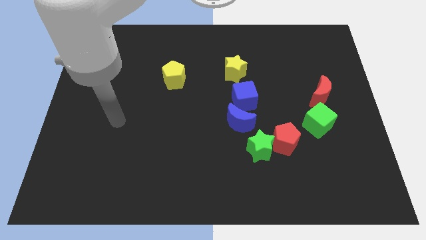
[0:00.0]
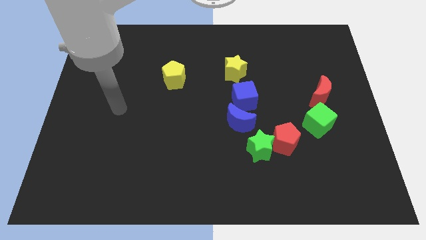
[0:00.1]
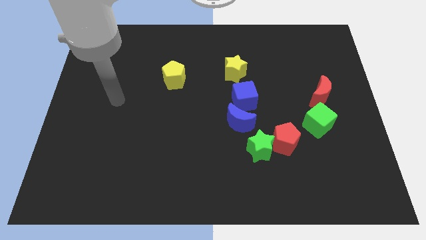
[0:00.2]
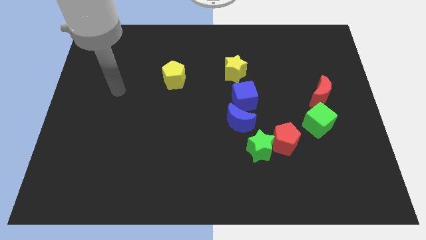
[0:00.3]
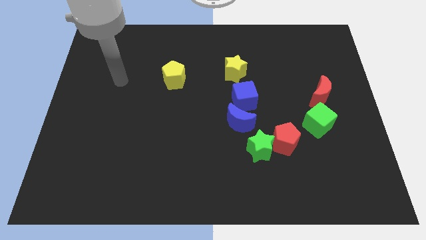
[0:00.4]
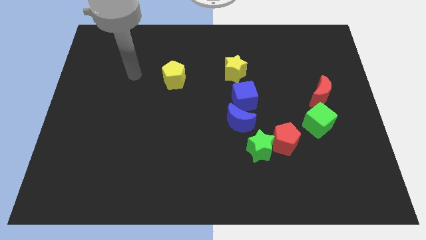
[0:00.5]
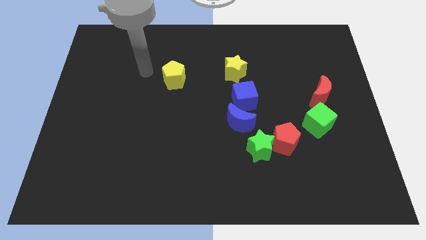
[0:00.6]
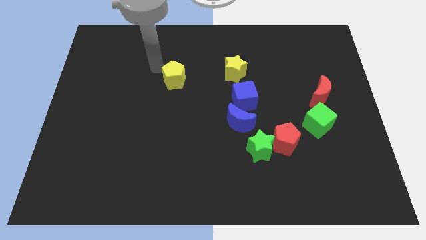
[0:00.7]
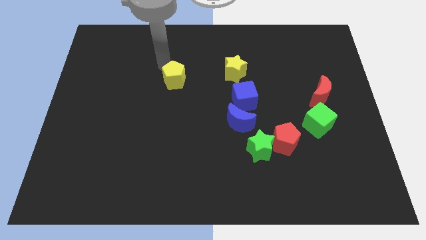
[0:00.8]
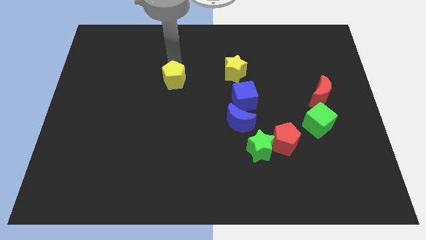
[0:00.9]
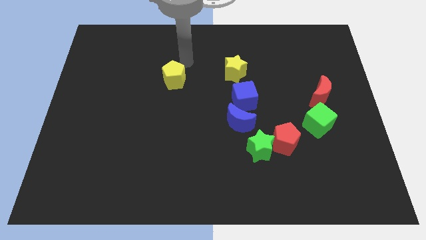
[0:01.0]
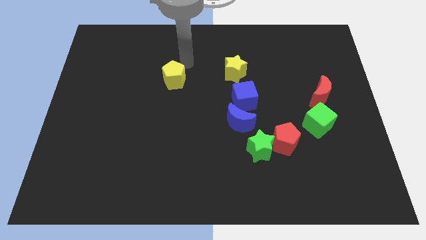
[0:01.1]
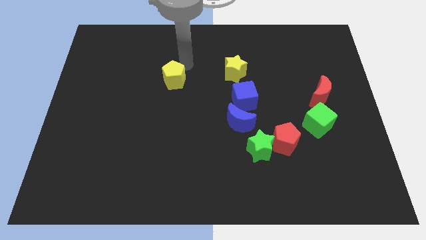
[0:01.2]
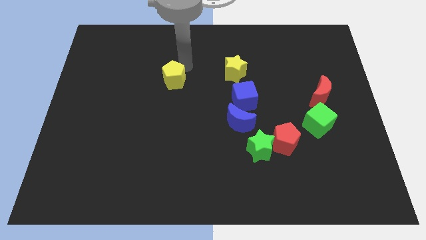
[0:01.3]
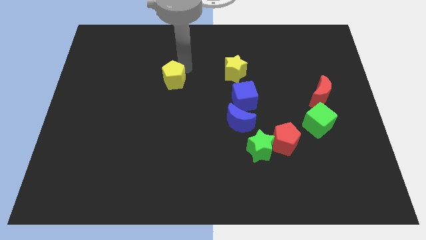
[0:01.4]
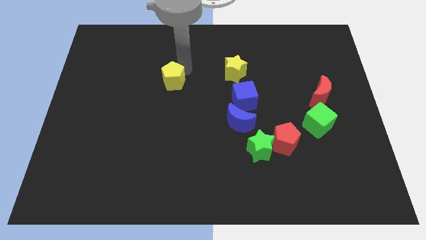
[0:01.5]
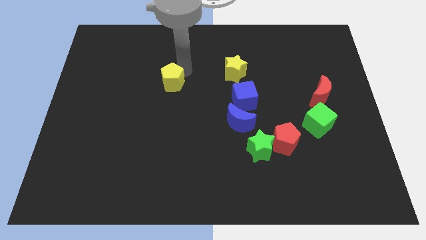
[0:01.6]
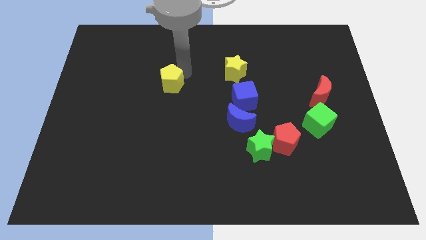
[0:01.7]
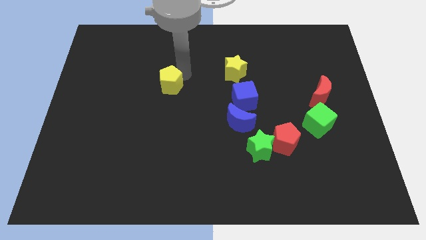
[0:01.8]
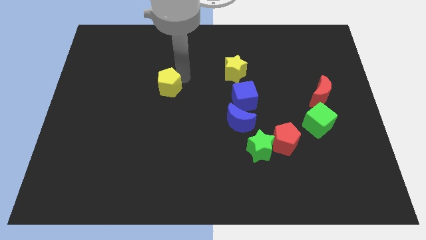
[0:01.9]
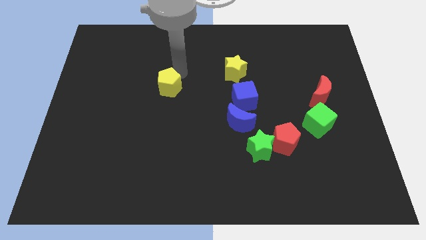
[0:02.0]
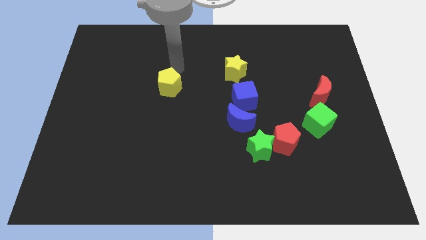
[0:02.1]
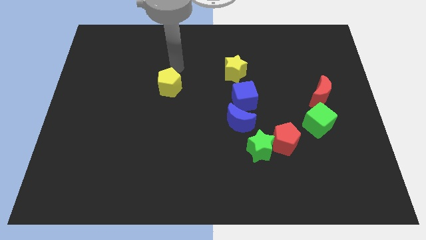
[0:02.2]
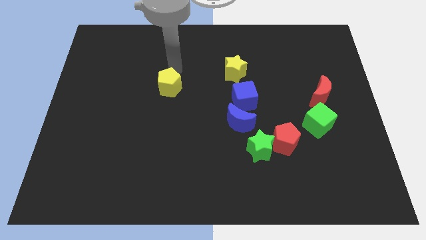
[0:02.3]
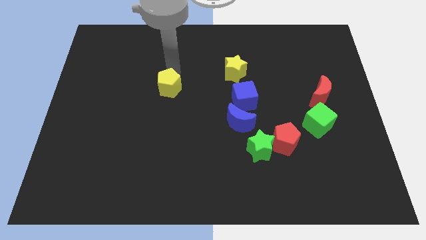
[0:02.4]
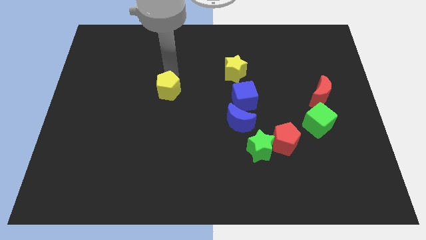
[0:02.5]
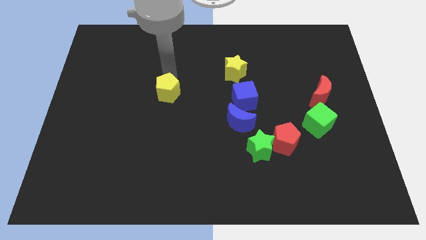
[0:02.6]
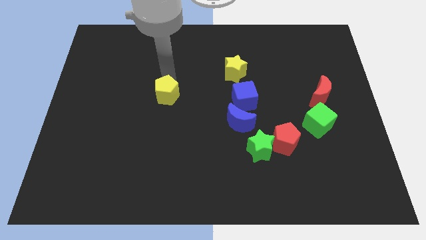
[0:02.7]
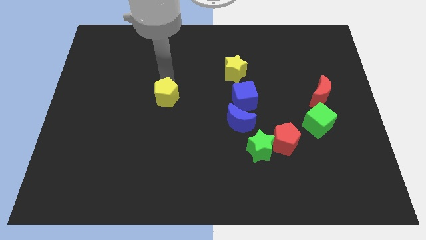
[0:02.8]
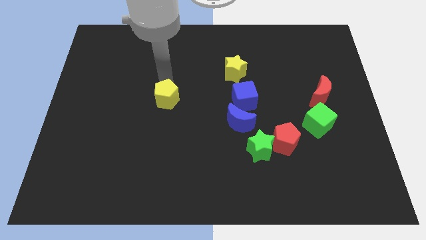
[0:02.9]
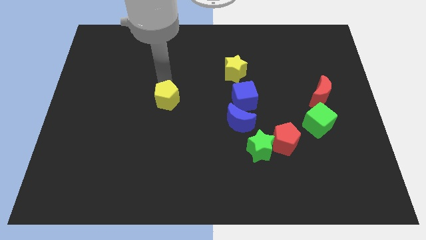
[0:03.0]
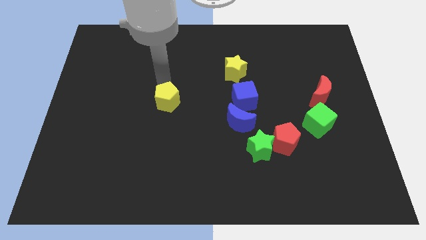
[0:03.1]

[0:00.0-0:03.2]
slide the yellow pentagon somewhat down

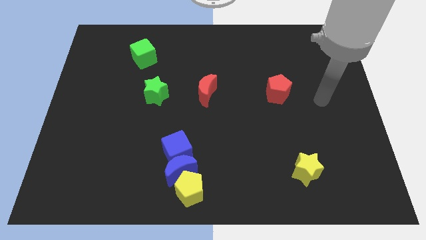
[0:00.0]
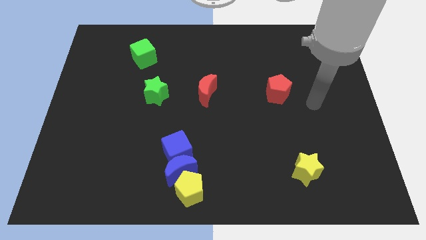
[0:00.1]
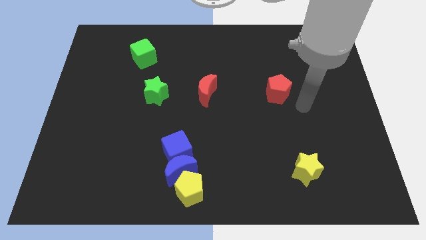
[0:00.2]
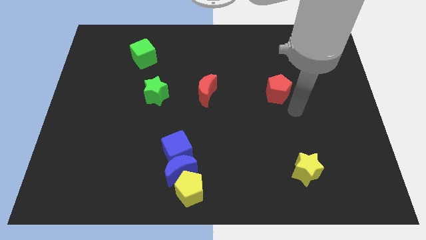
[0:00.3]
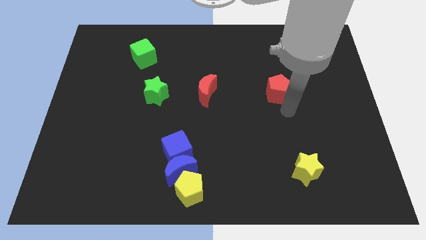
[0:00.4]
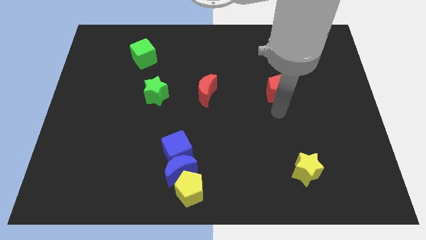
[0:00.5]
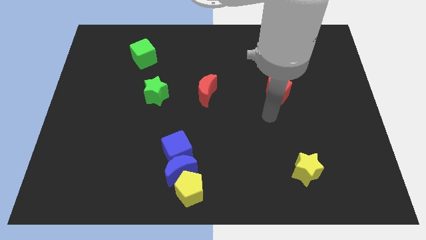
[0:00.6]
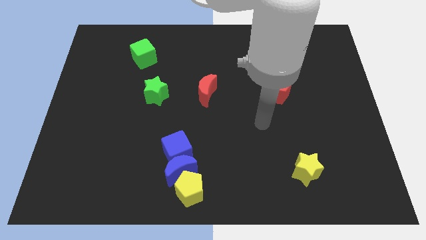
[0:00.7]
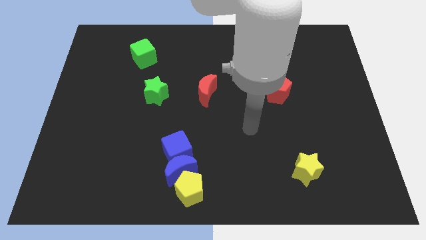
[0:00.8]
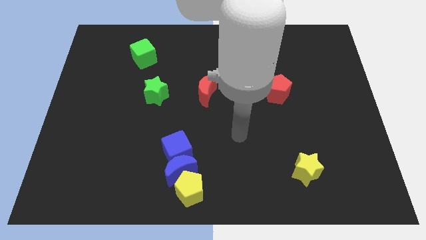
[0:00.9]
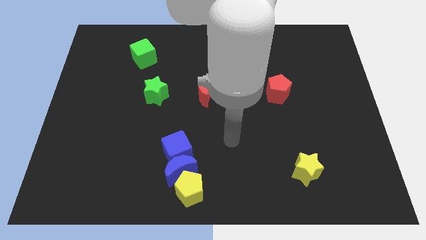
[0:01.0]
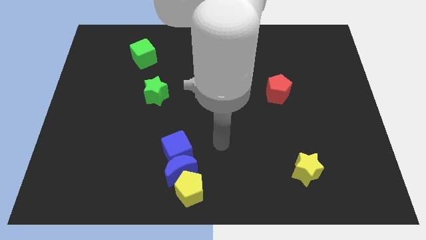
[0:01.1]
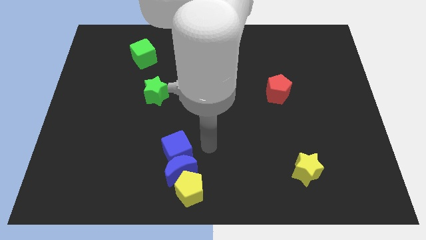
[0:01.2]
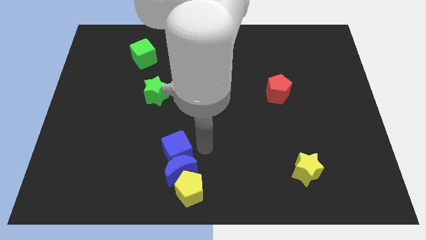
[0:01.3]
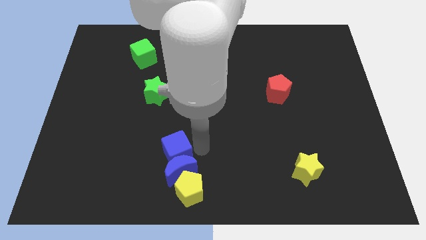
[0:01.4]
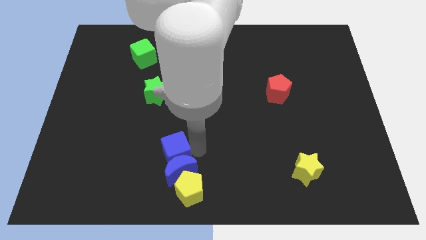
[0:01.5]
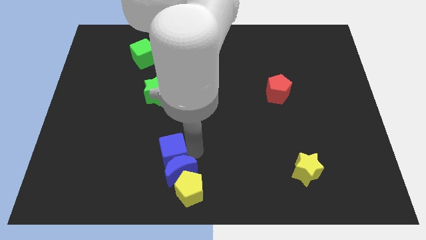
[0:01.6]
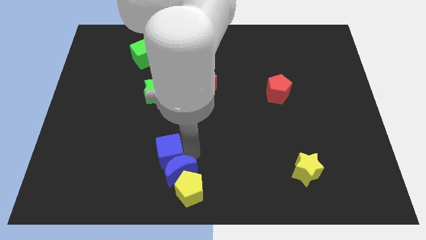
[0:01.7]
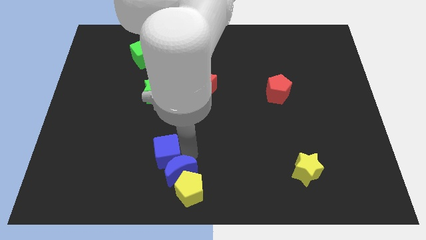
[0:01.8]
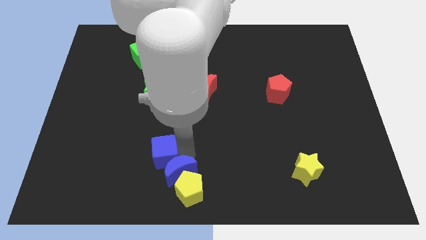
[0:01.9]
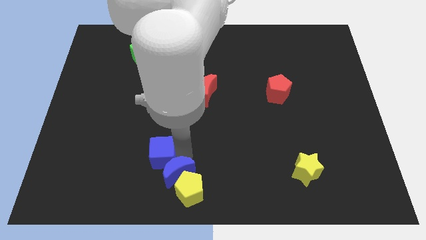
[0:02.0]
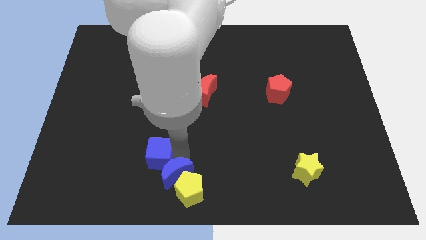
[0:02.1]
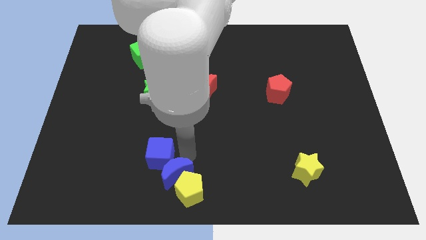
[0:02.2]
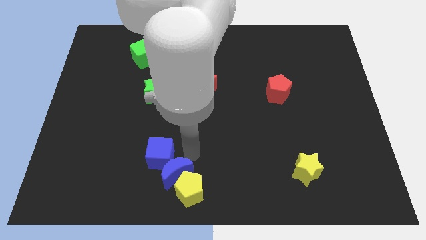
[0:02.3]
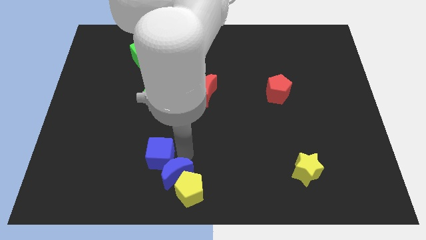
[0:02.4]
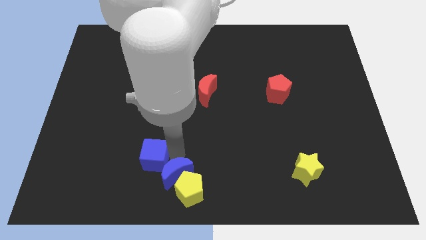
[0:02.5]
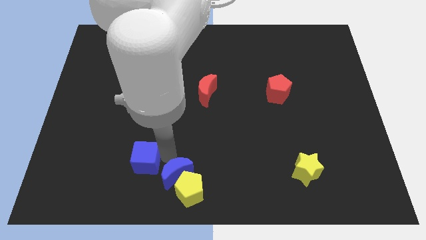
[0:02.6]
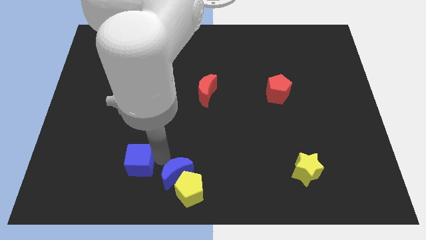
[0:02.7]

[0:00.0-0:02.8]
slightly slide the blue cube to the left

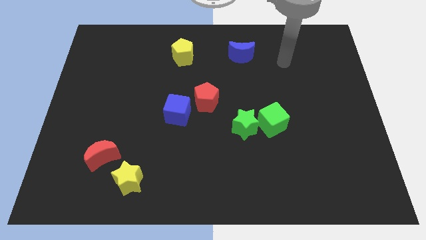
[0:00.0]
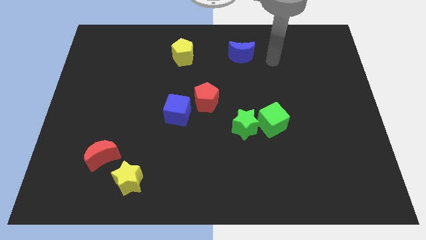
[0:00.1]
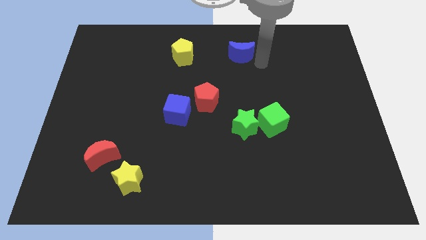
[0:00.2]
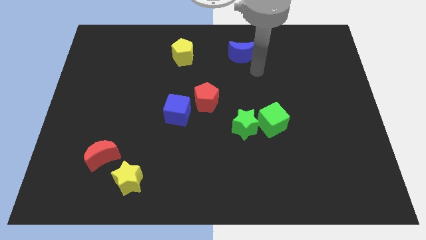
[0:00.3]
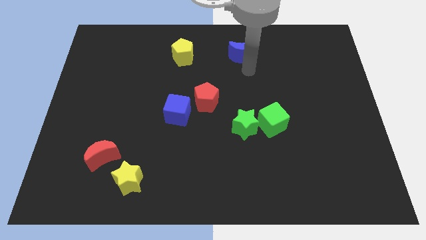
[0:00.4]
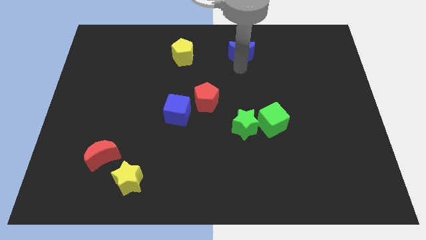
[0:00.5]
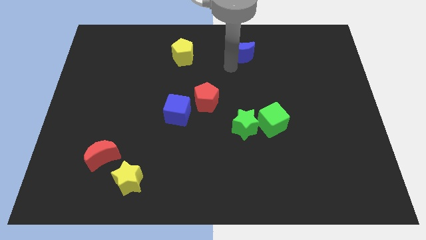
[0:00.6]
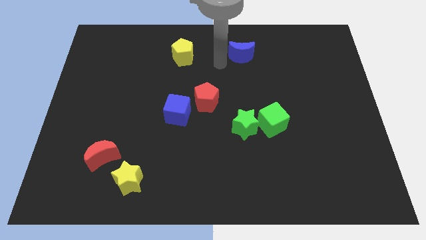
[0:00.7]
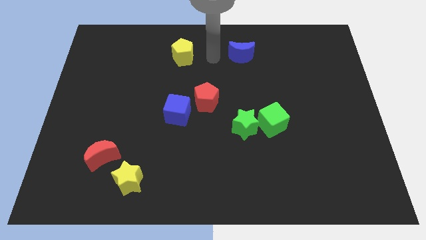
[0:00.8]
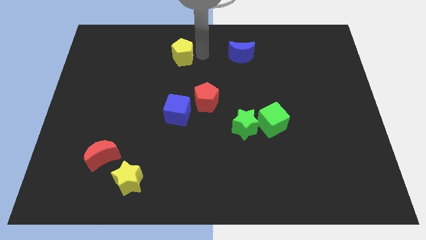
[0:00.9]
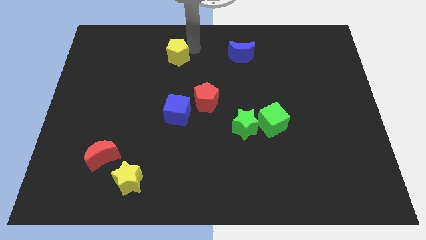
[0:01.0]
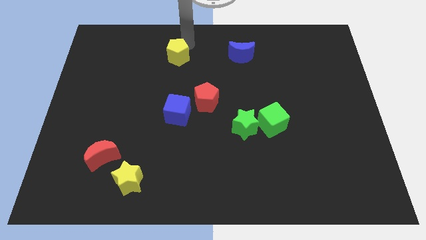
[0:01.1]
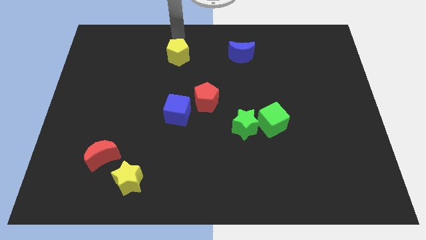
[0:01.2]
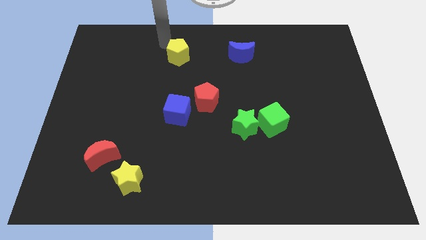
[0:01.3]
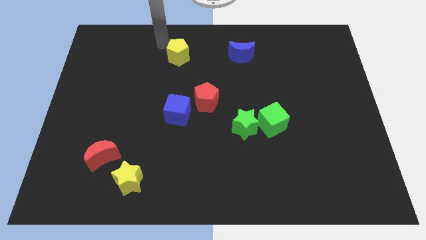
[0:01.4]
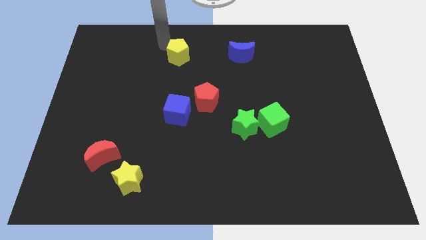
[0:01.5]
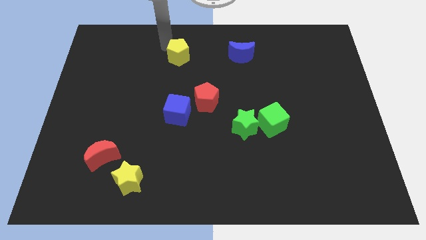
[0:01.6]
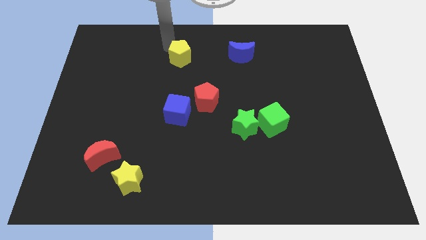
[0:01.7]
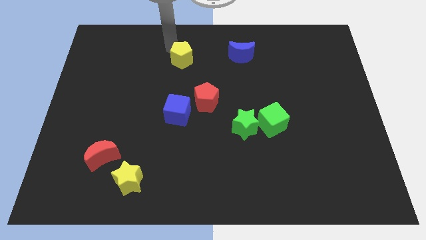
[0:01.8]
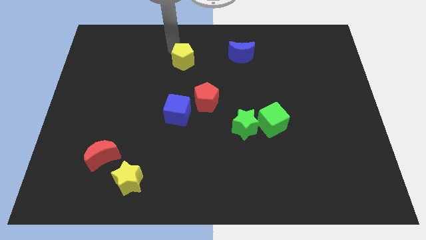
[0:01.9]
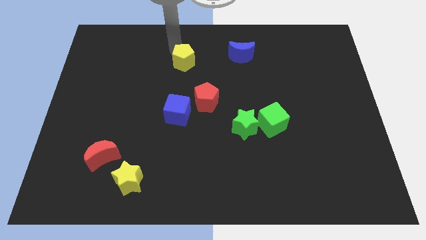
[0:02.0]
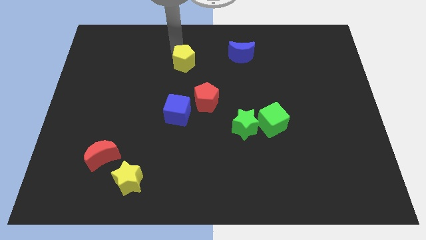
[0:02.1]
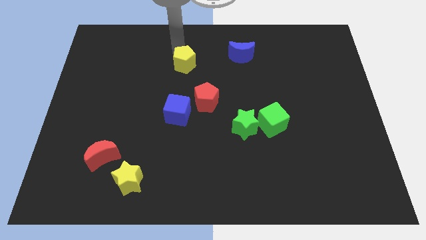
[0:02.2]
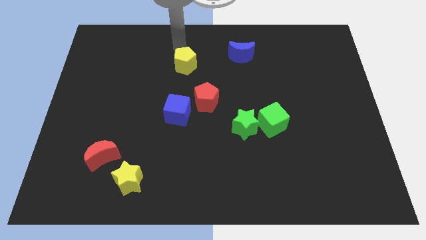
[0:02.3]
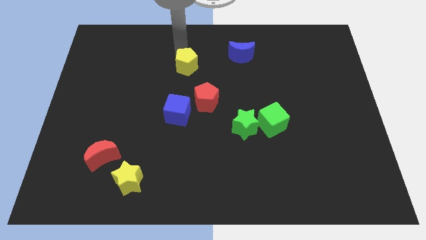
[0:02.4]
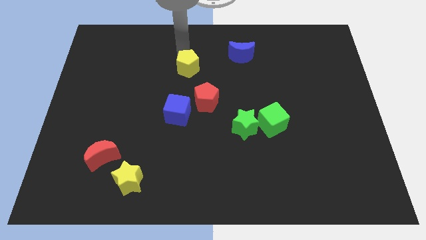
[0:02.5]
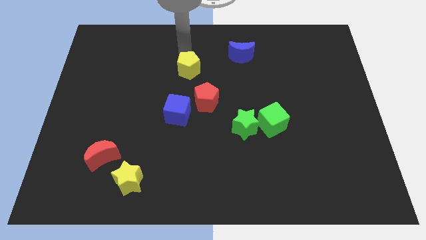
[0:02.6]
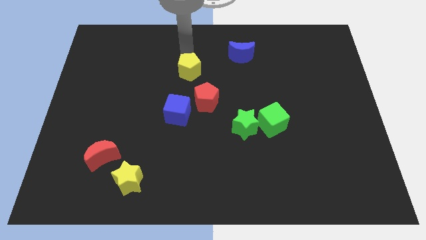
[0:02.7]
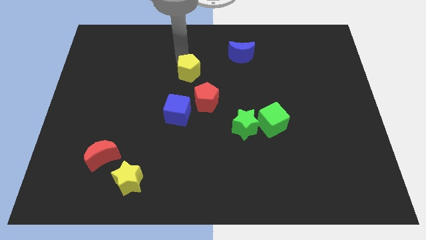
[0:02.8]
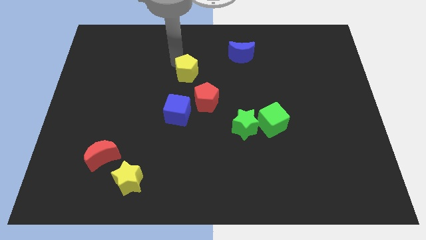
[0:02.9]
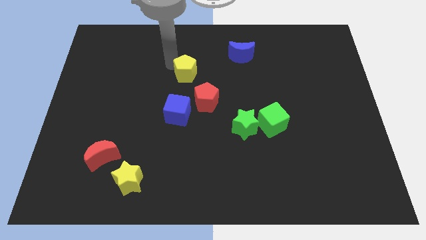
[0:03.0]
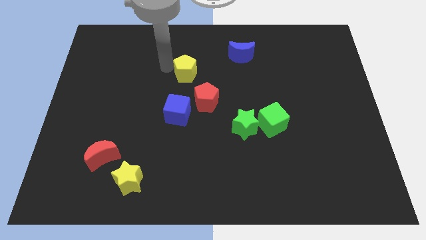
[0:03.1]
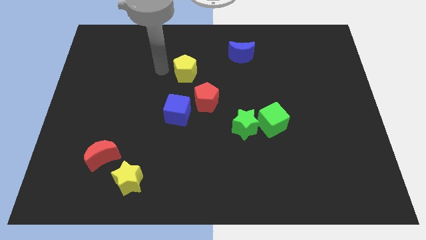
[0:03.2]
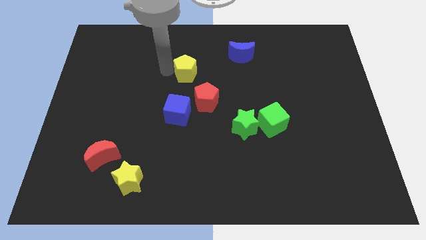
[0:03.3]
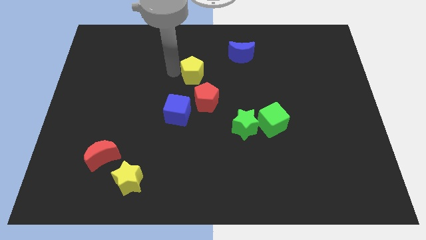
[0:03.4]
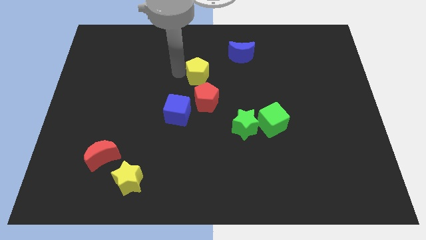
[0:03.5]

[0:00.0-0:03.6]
move the yellow pentagon a little downwards and right
